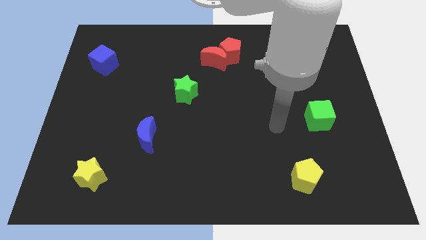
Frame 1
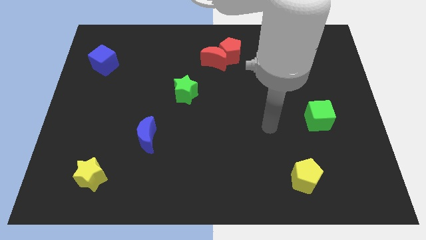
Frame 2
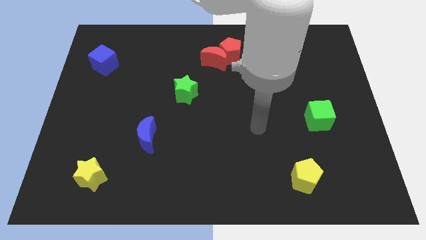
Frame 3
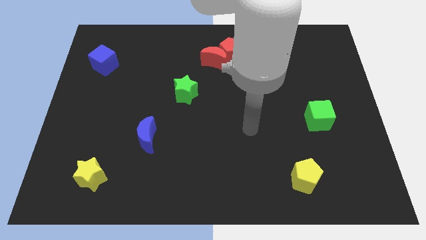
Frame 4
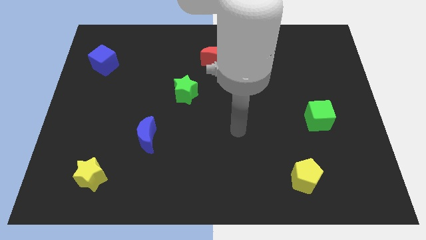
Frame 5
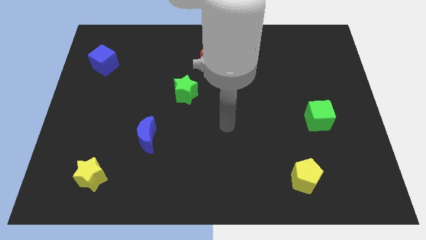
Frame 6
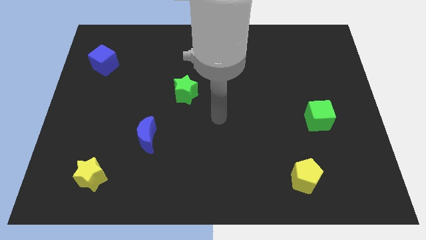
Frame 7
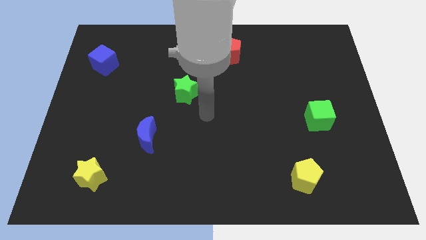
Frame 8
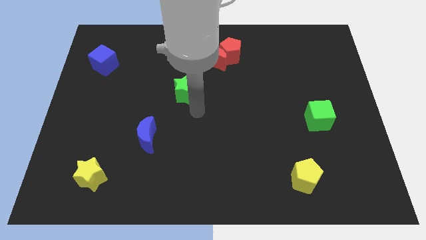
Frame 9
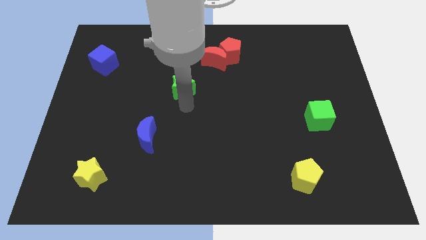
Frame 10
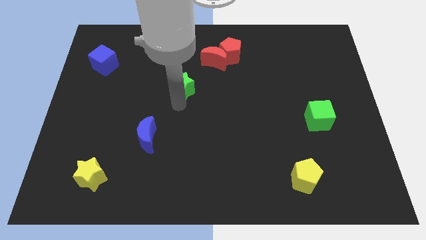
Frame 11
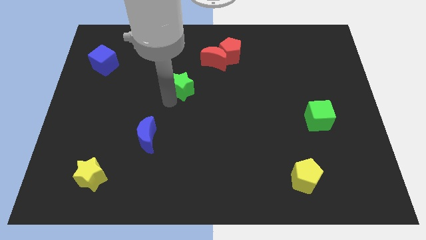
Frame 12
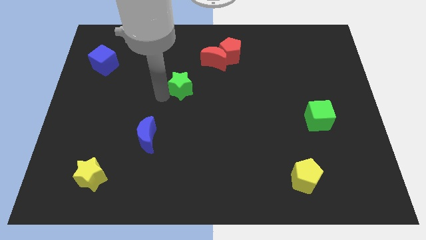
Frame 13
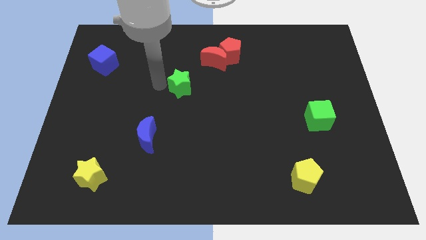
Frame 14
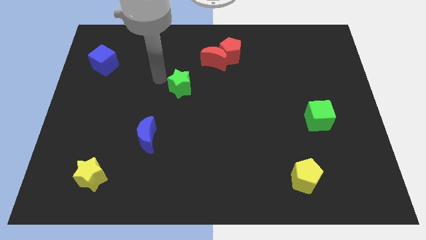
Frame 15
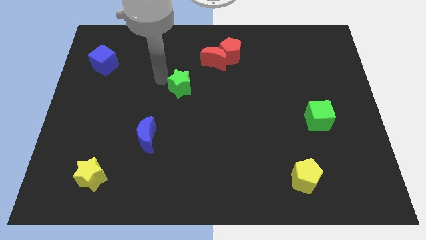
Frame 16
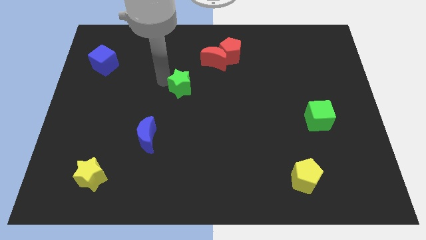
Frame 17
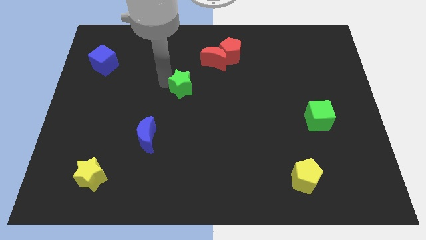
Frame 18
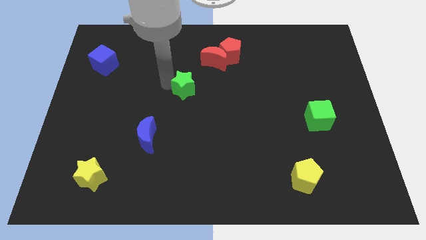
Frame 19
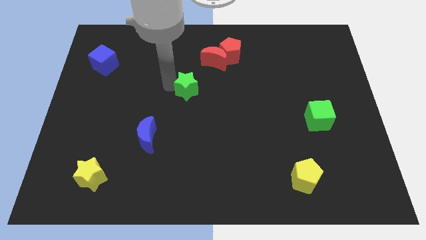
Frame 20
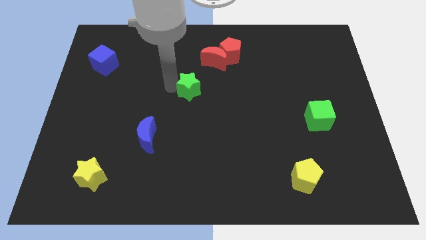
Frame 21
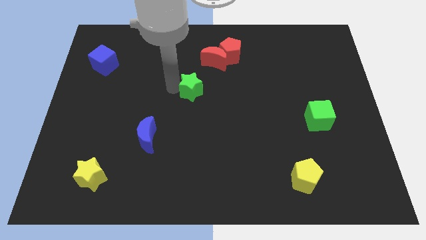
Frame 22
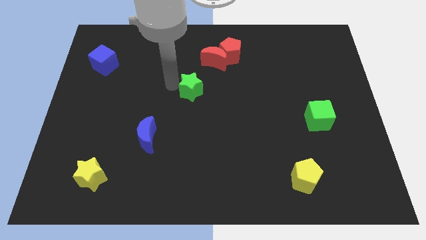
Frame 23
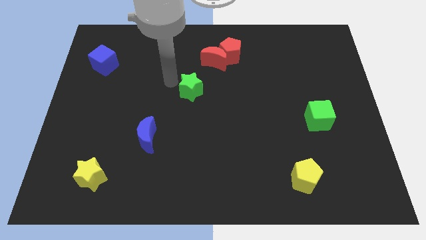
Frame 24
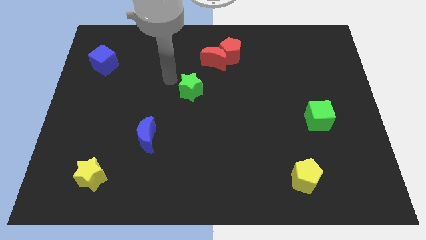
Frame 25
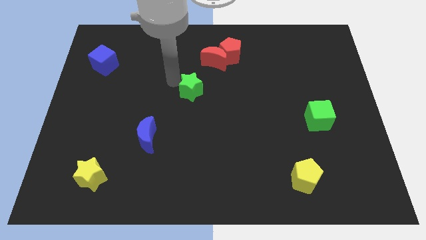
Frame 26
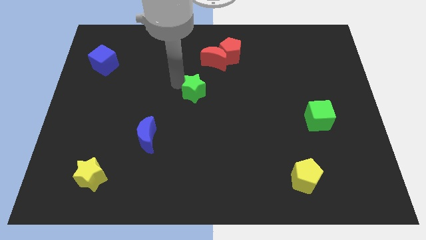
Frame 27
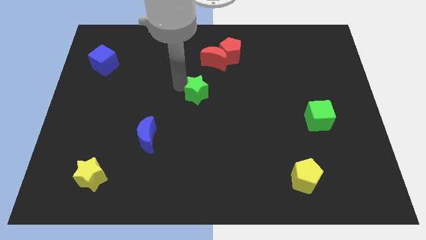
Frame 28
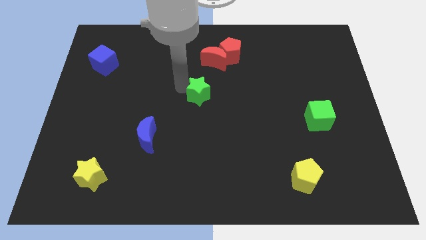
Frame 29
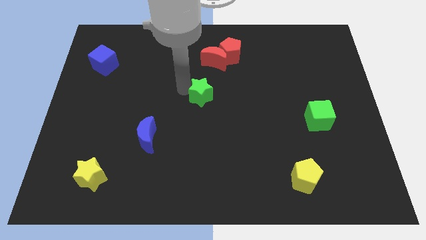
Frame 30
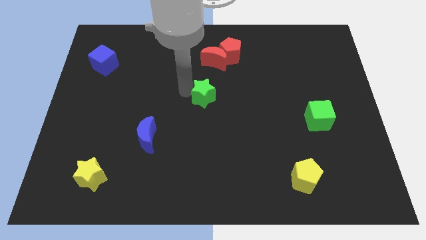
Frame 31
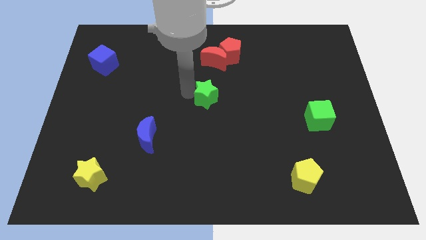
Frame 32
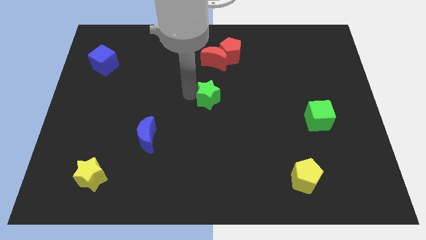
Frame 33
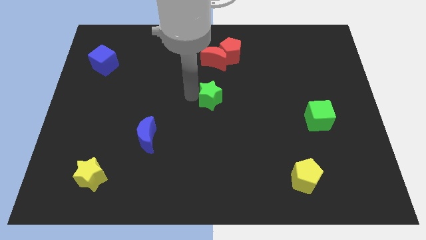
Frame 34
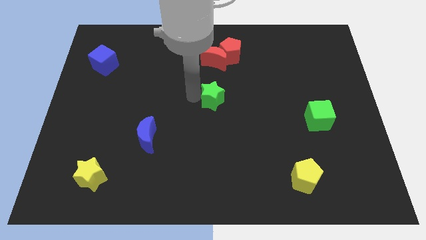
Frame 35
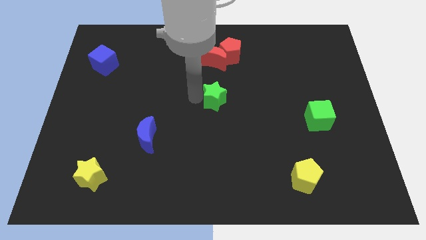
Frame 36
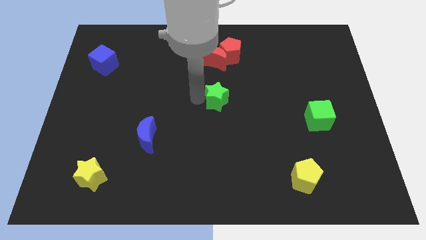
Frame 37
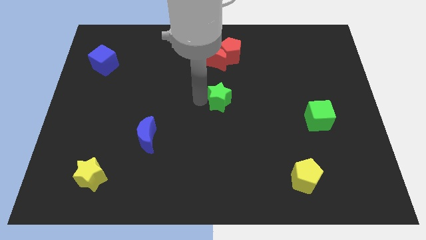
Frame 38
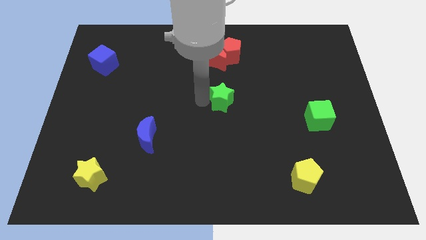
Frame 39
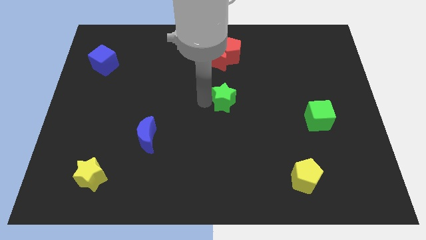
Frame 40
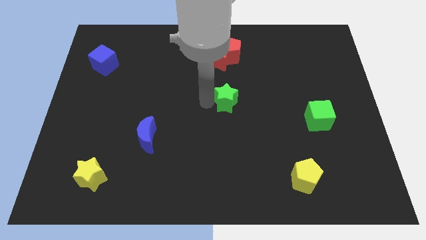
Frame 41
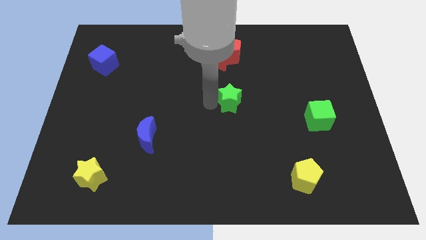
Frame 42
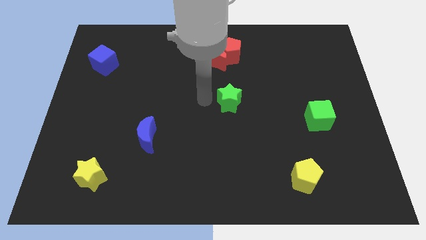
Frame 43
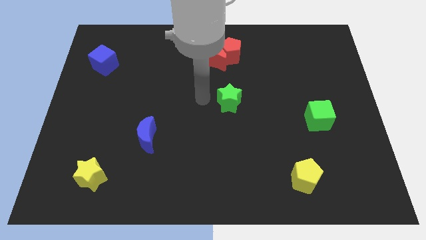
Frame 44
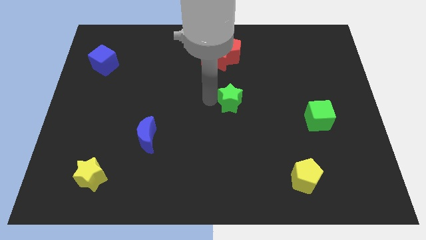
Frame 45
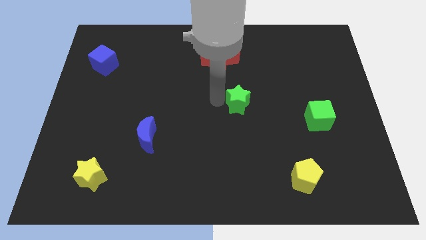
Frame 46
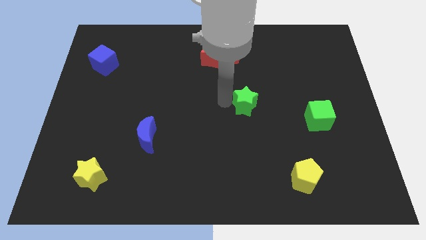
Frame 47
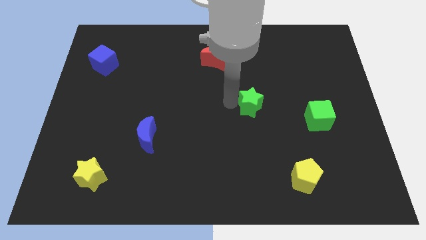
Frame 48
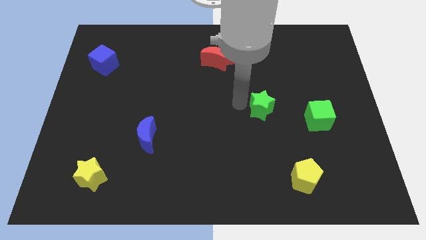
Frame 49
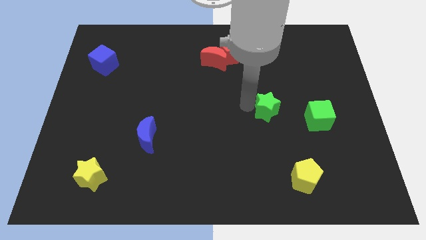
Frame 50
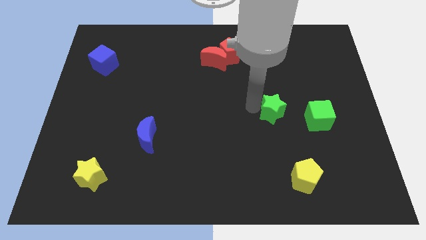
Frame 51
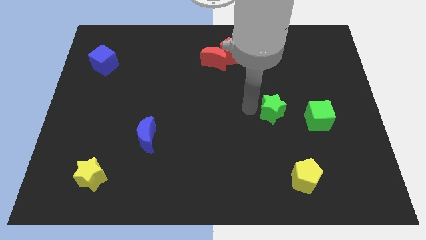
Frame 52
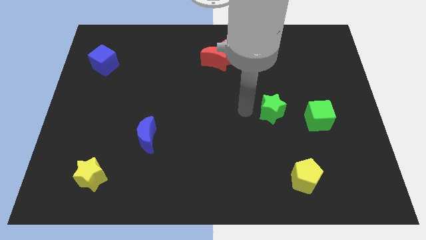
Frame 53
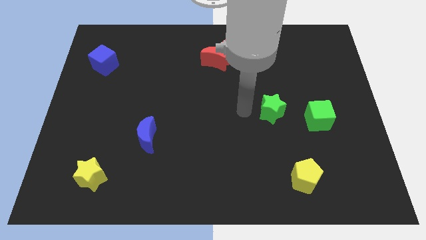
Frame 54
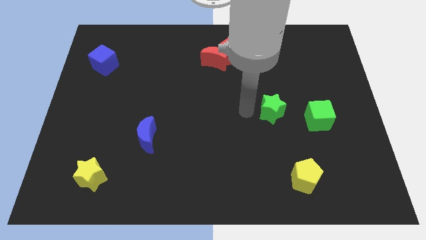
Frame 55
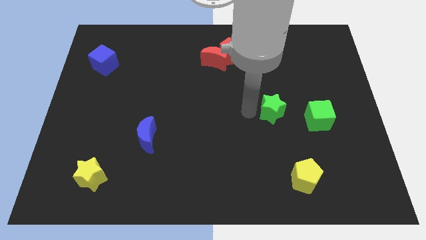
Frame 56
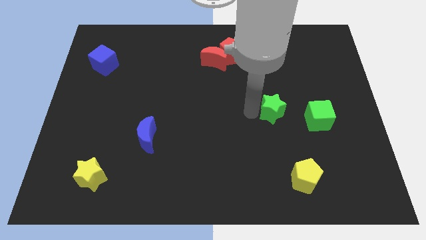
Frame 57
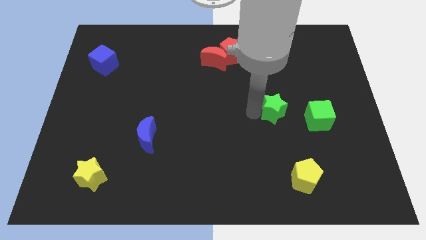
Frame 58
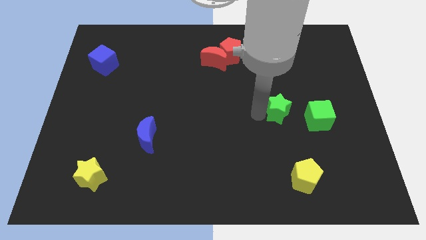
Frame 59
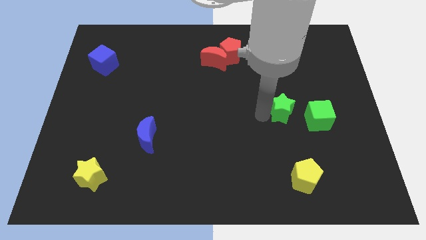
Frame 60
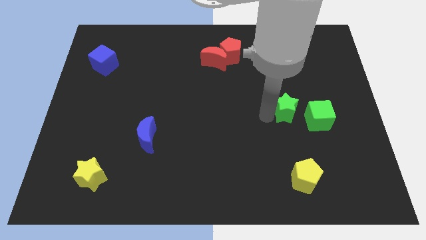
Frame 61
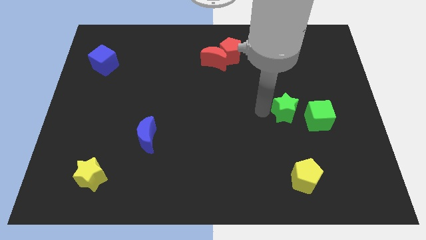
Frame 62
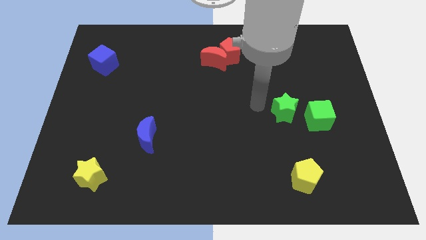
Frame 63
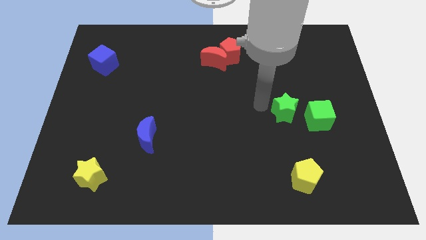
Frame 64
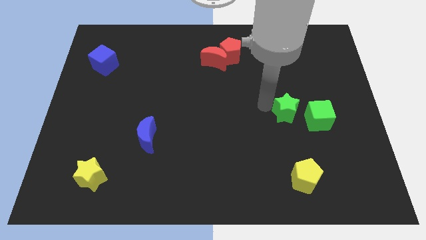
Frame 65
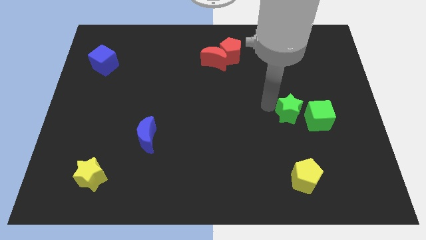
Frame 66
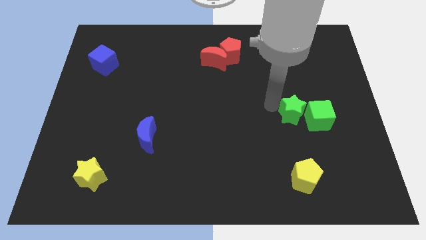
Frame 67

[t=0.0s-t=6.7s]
push the green star close to the green cube

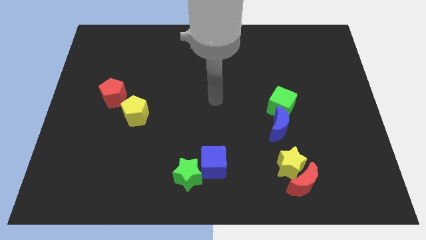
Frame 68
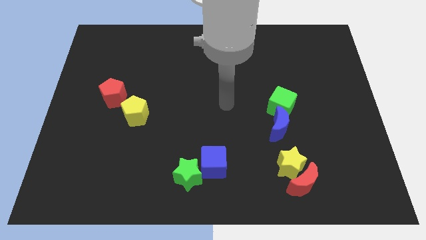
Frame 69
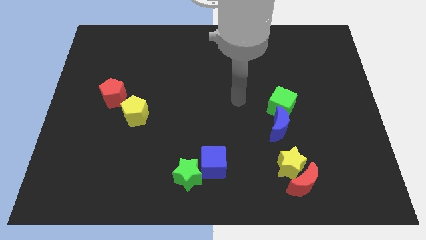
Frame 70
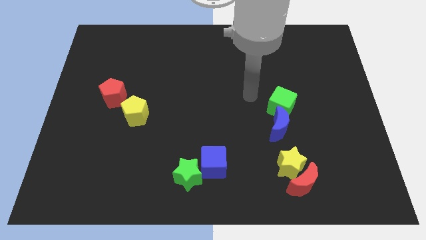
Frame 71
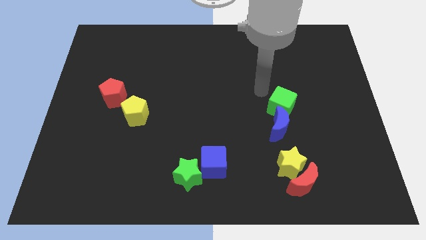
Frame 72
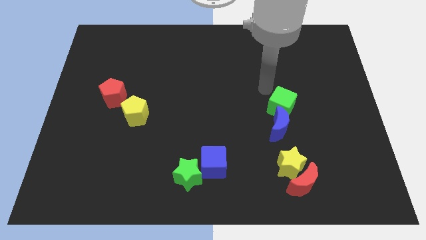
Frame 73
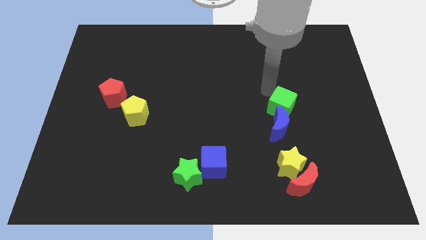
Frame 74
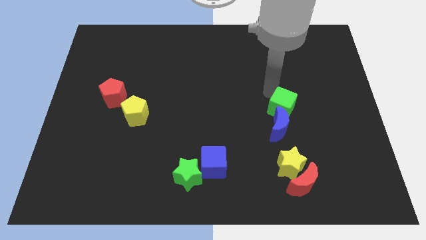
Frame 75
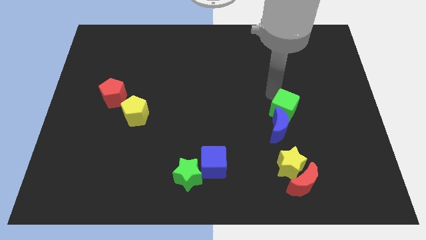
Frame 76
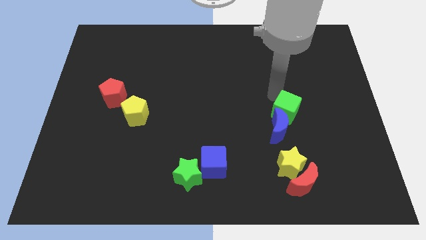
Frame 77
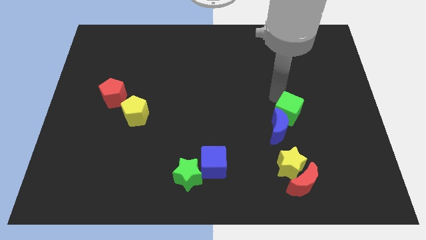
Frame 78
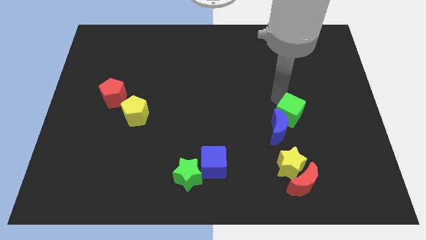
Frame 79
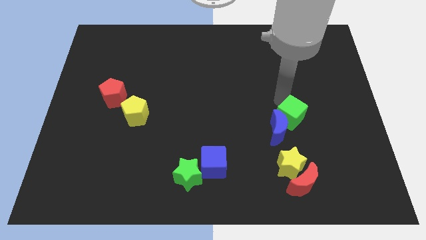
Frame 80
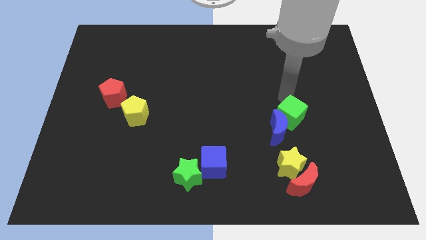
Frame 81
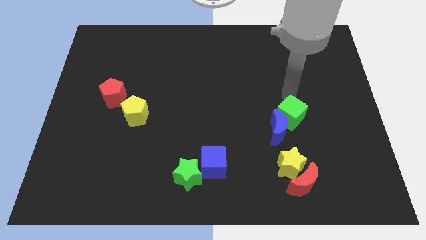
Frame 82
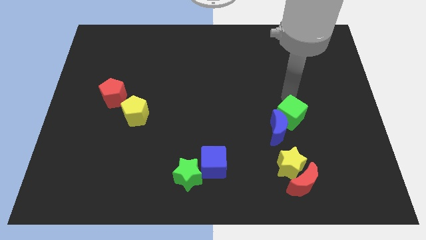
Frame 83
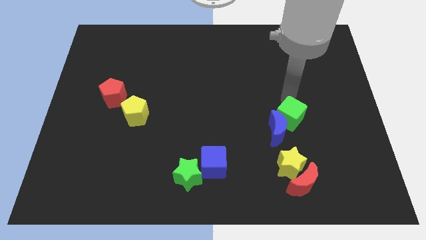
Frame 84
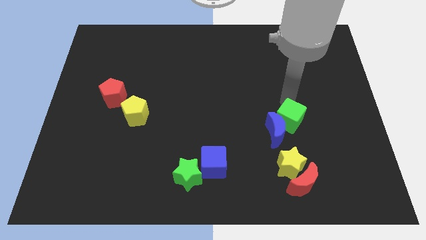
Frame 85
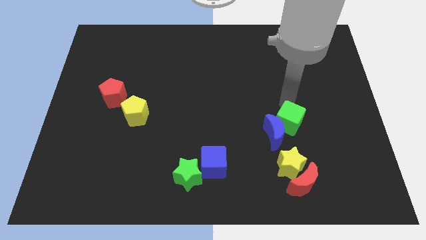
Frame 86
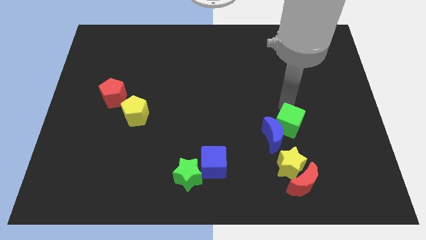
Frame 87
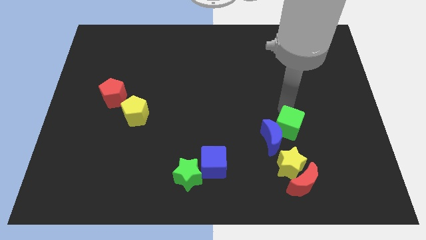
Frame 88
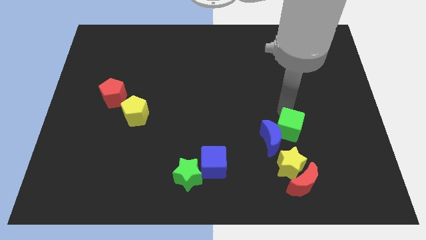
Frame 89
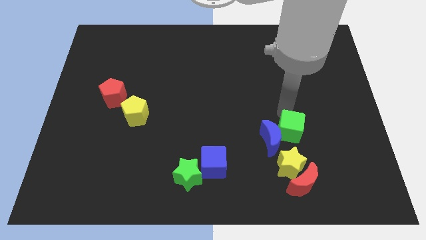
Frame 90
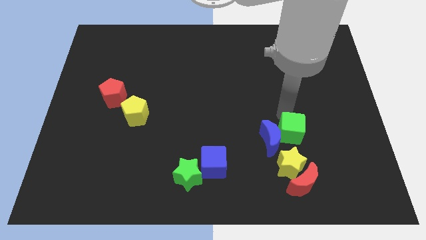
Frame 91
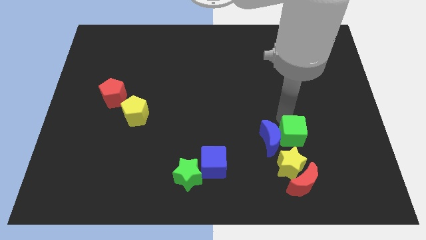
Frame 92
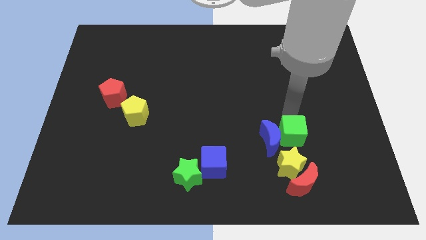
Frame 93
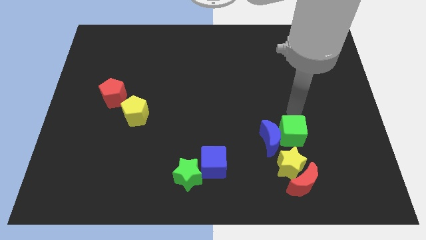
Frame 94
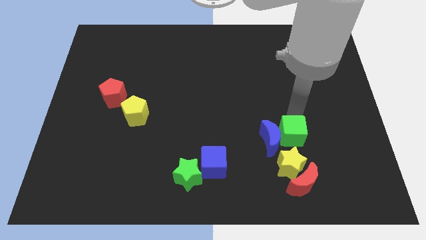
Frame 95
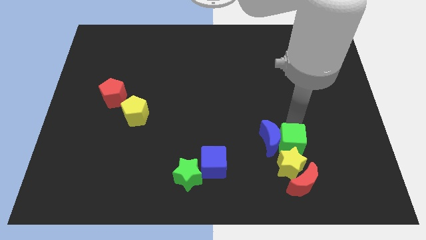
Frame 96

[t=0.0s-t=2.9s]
slide the green cube to the yellow star
